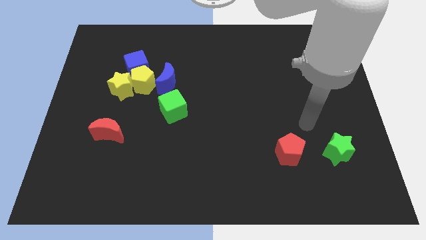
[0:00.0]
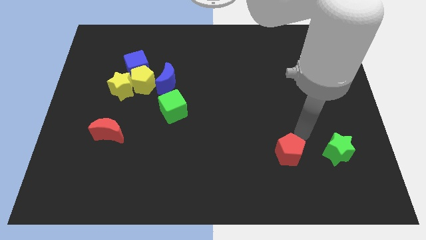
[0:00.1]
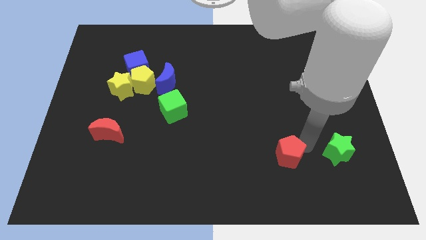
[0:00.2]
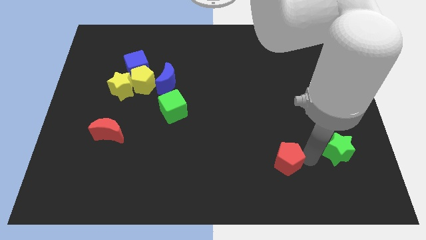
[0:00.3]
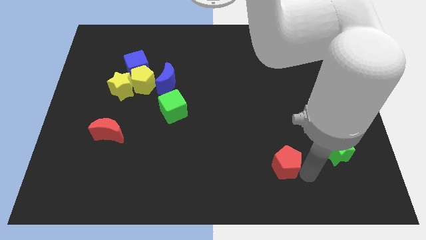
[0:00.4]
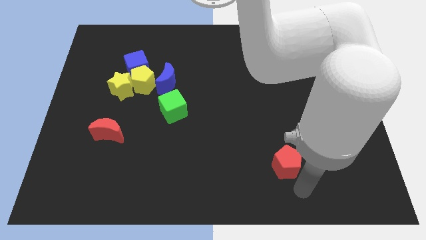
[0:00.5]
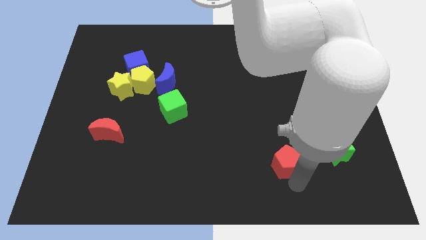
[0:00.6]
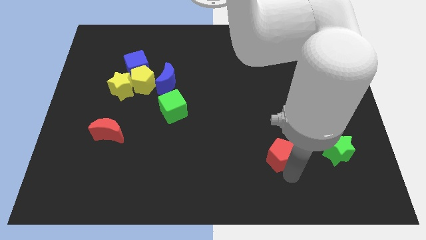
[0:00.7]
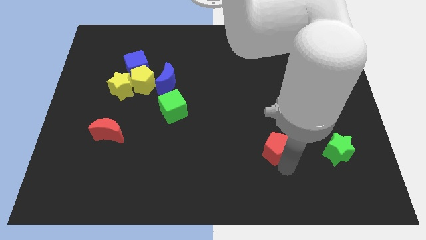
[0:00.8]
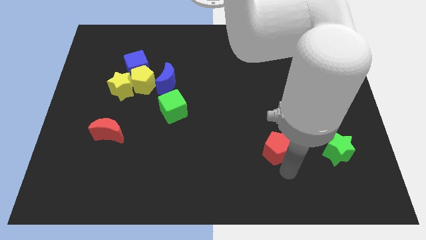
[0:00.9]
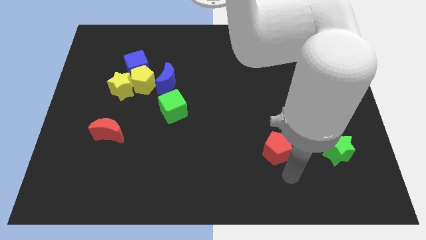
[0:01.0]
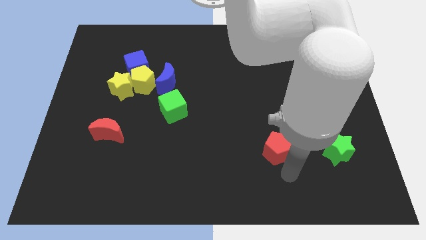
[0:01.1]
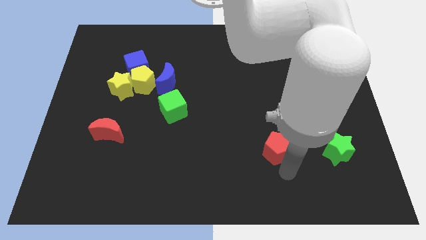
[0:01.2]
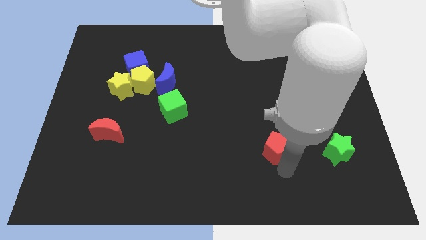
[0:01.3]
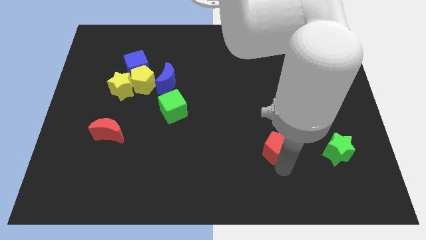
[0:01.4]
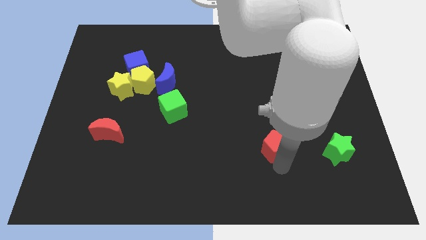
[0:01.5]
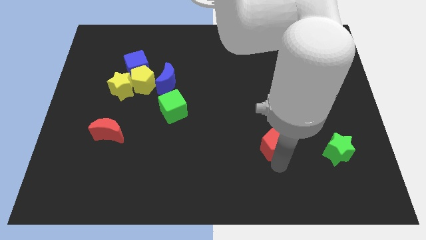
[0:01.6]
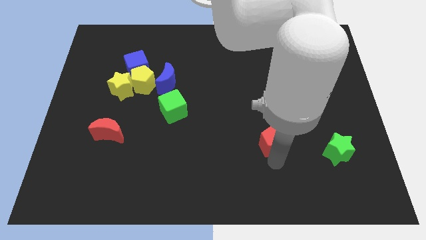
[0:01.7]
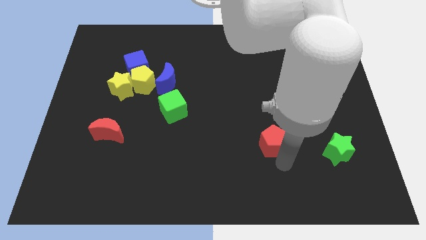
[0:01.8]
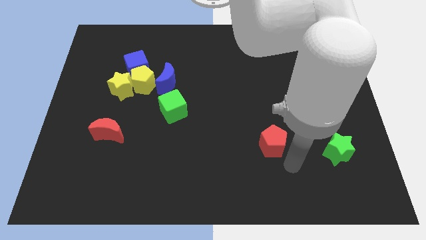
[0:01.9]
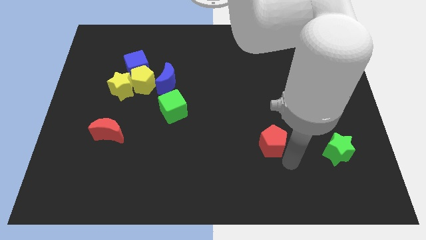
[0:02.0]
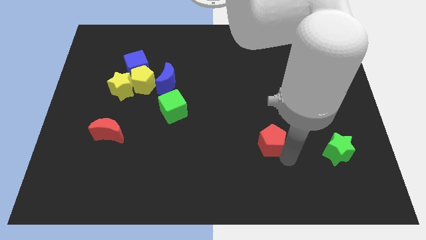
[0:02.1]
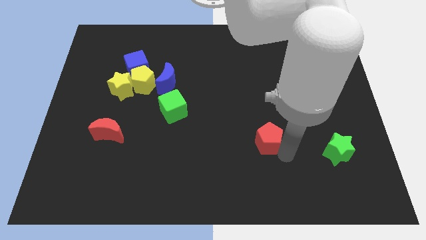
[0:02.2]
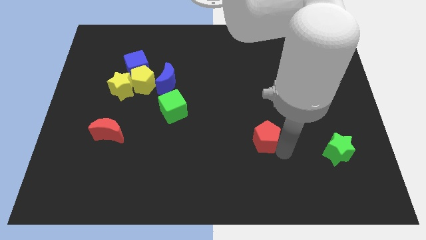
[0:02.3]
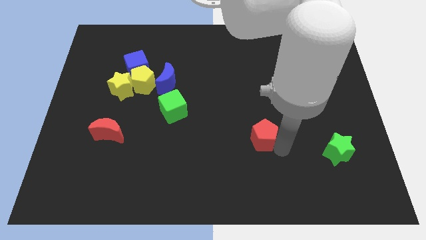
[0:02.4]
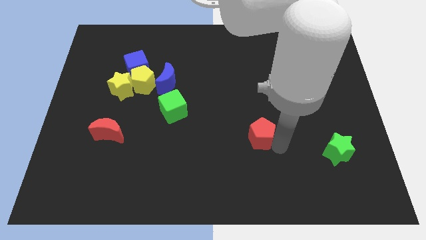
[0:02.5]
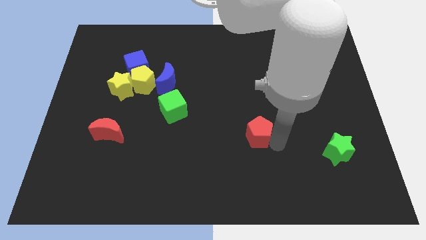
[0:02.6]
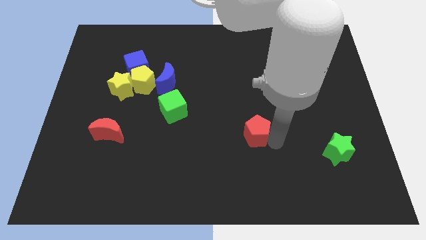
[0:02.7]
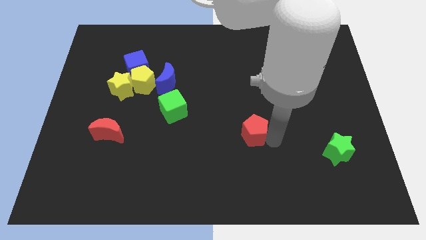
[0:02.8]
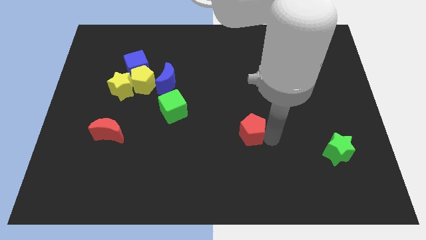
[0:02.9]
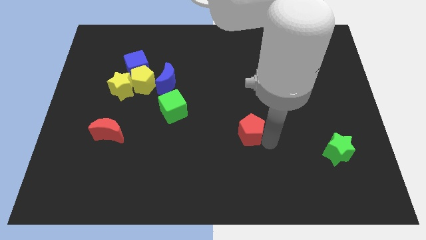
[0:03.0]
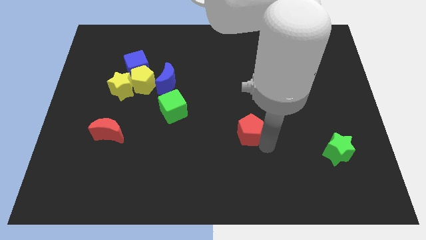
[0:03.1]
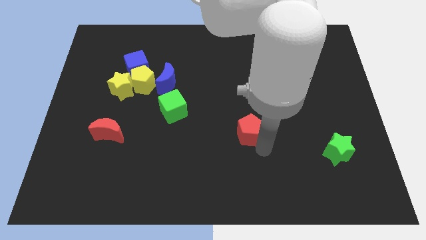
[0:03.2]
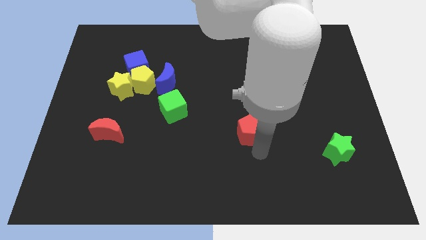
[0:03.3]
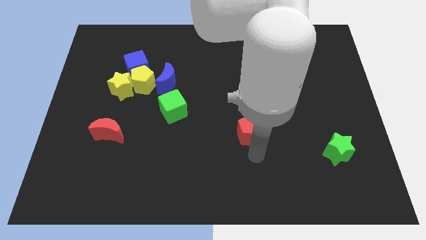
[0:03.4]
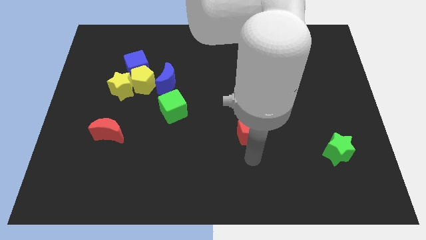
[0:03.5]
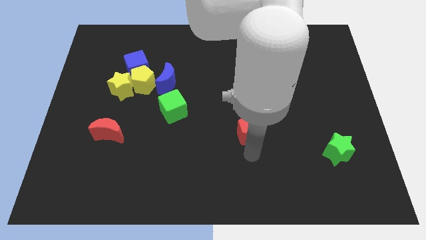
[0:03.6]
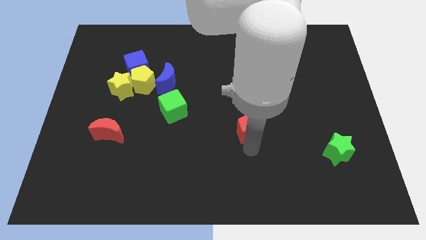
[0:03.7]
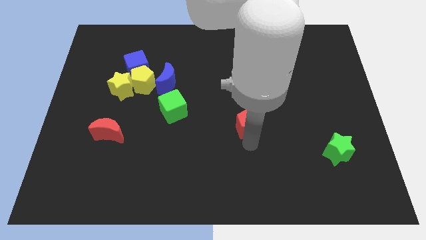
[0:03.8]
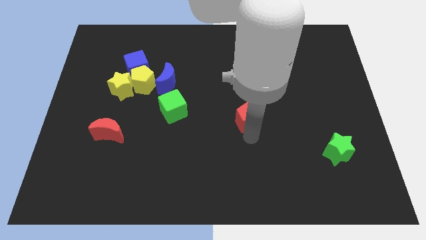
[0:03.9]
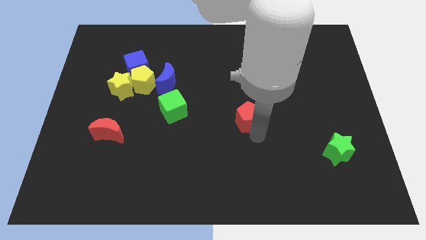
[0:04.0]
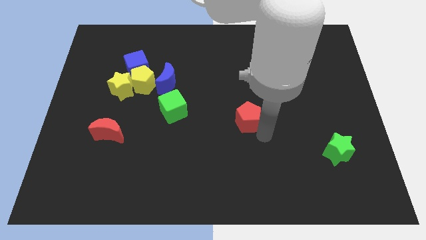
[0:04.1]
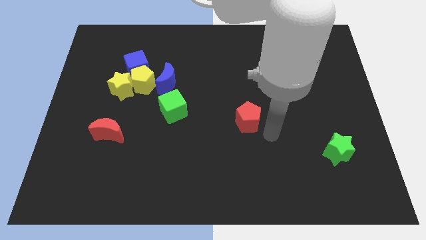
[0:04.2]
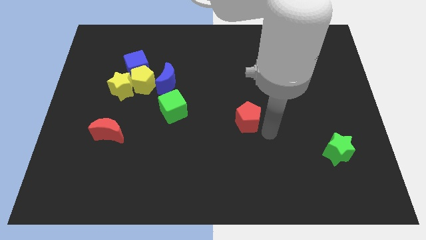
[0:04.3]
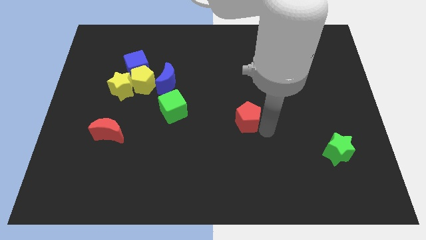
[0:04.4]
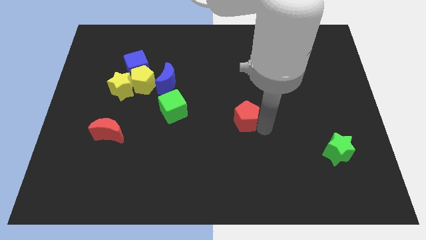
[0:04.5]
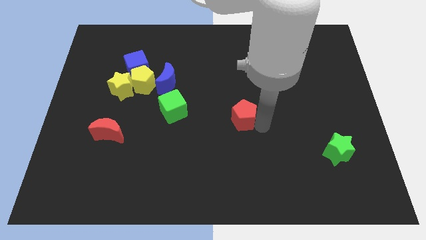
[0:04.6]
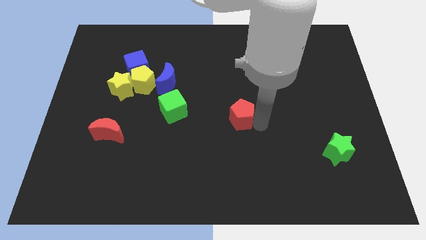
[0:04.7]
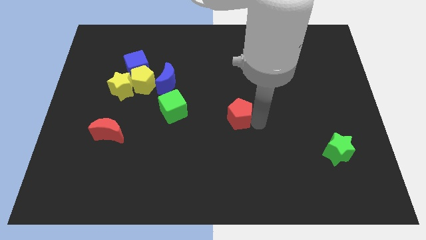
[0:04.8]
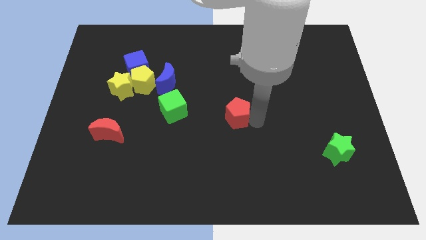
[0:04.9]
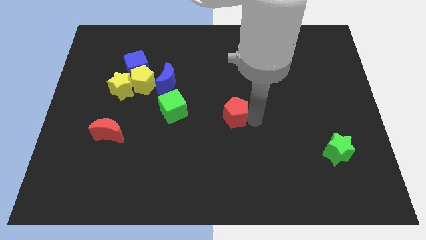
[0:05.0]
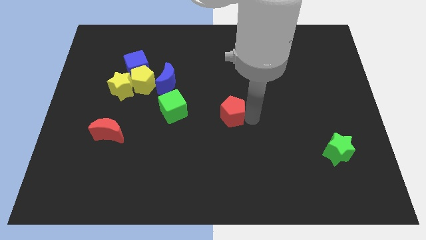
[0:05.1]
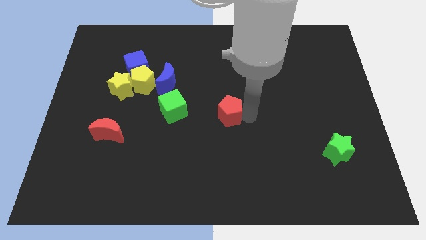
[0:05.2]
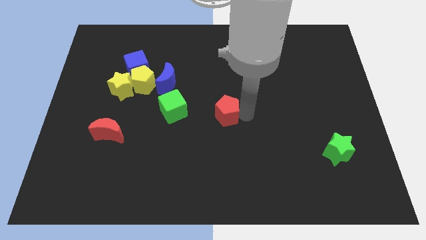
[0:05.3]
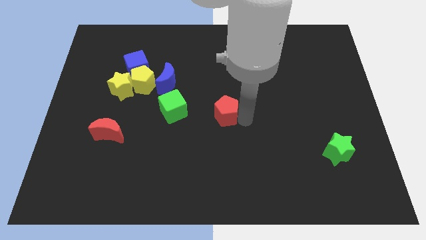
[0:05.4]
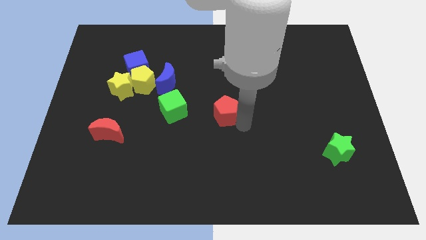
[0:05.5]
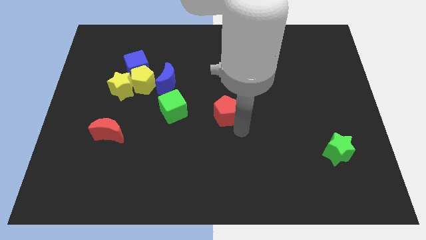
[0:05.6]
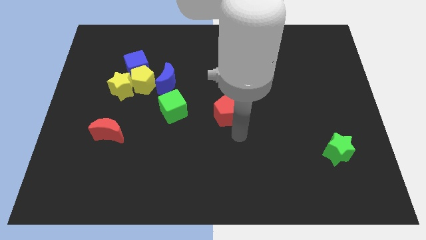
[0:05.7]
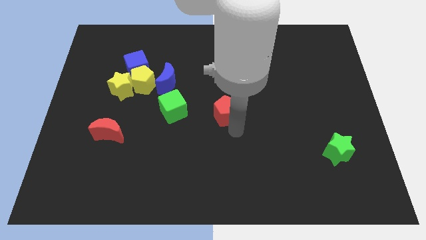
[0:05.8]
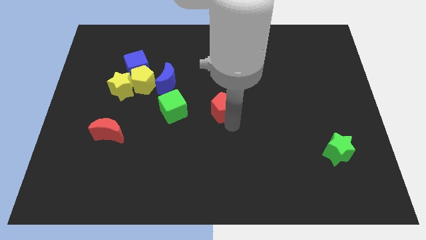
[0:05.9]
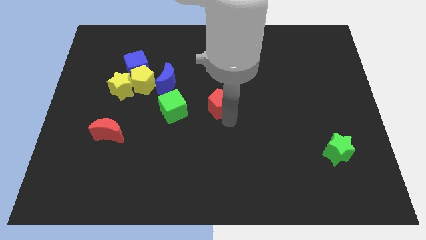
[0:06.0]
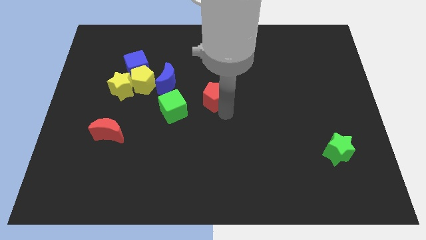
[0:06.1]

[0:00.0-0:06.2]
slide the red pentagon upwards and then left

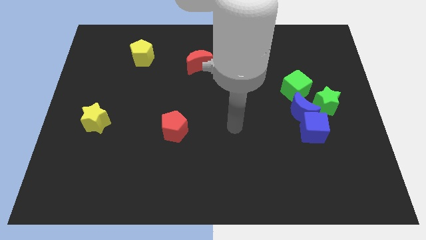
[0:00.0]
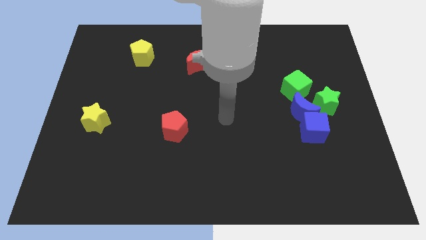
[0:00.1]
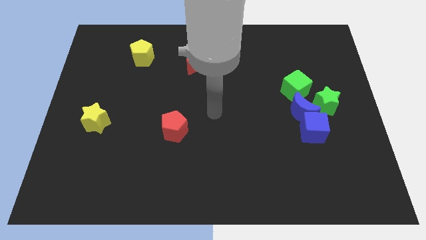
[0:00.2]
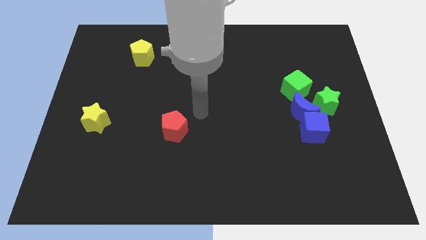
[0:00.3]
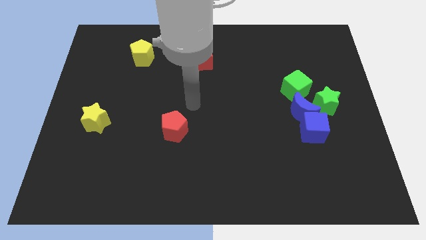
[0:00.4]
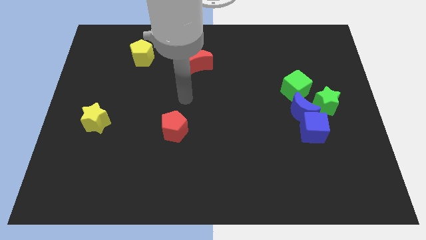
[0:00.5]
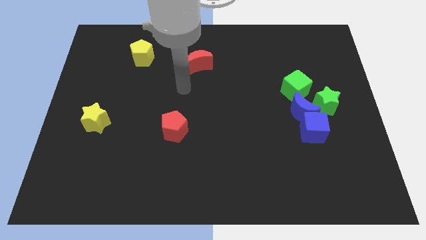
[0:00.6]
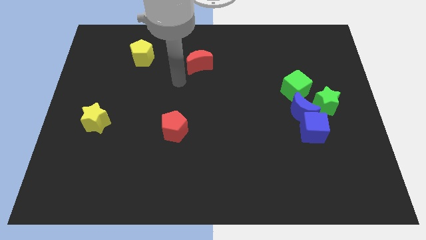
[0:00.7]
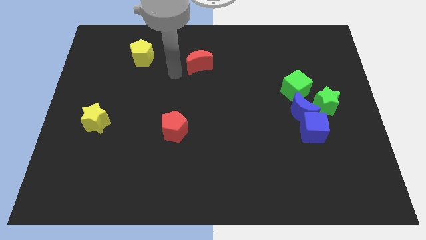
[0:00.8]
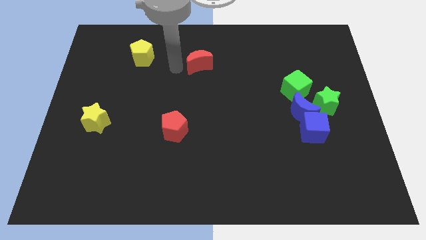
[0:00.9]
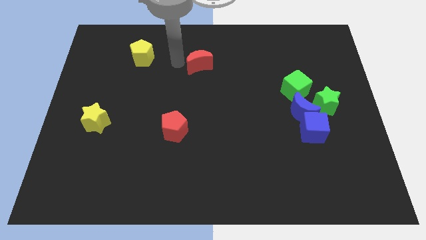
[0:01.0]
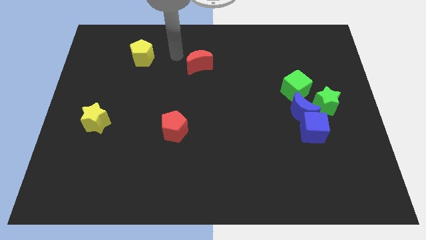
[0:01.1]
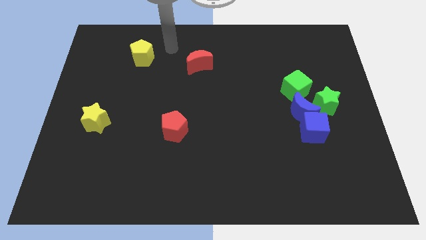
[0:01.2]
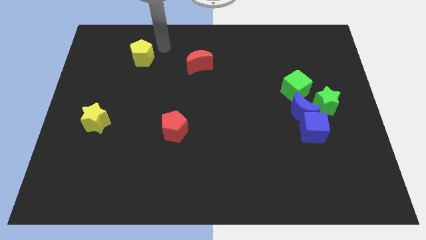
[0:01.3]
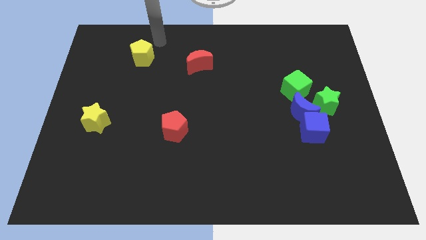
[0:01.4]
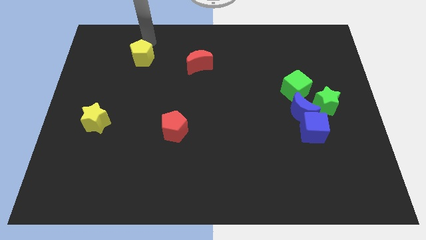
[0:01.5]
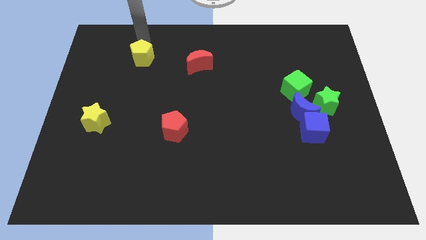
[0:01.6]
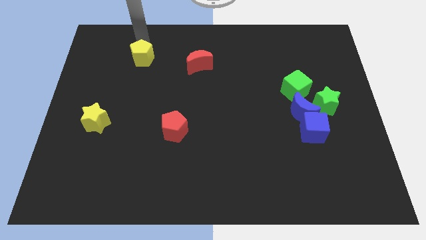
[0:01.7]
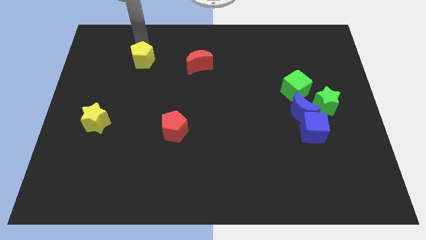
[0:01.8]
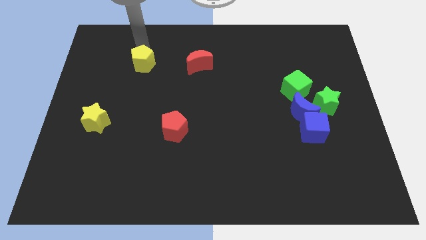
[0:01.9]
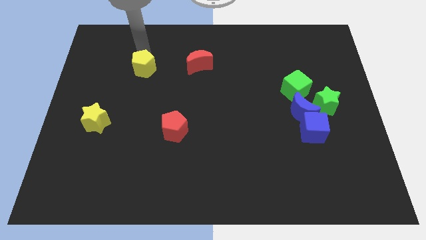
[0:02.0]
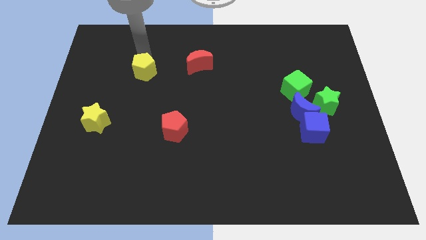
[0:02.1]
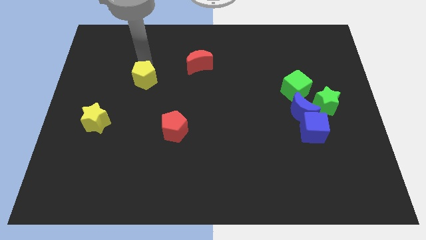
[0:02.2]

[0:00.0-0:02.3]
move the yellow pentagon a little bit downwards

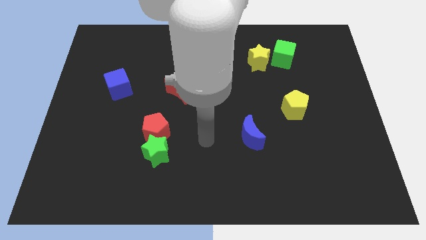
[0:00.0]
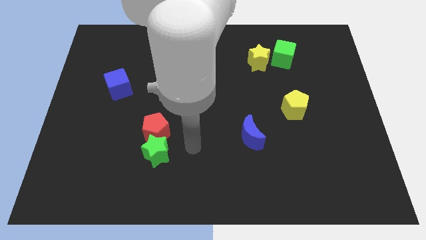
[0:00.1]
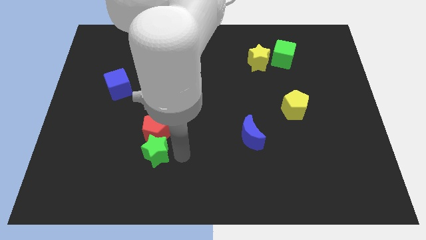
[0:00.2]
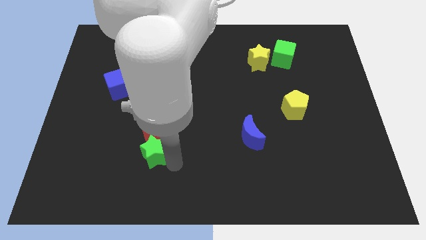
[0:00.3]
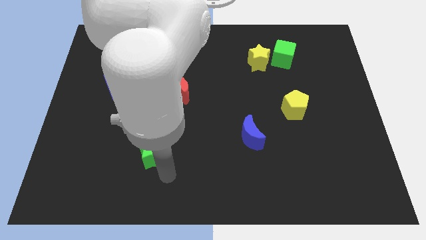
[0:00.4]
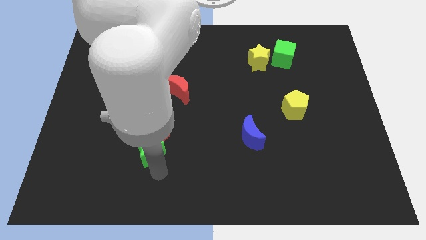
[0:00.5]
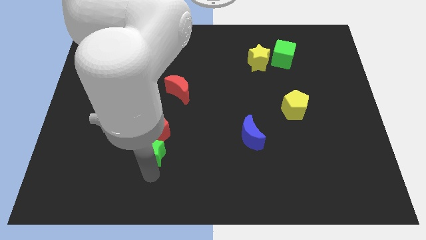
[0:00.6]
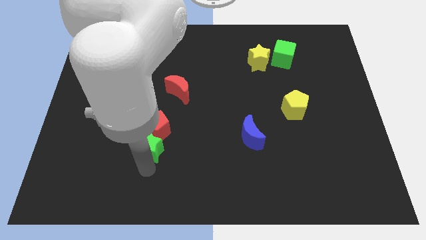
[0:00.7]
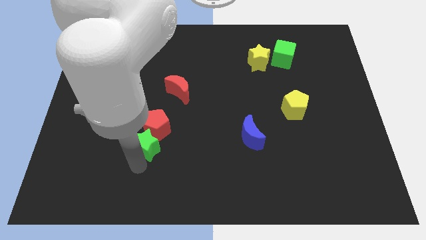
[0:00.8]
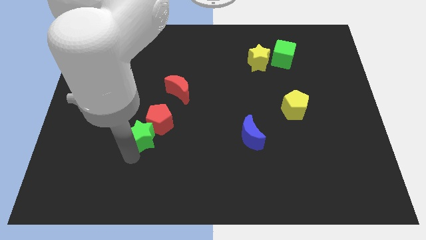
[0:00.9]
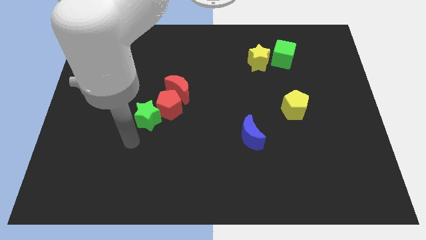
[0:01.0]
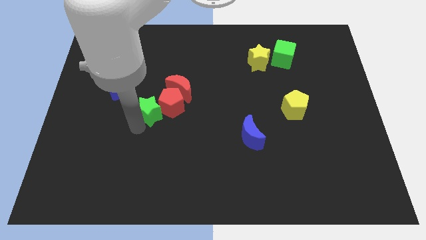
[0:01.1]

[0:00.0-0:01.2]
move the red pentagon a little bit diagonally up and to the right
